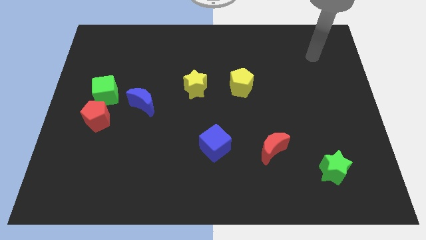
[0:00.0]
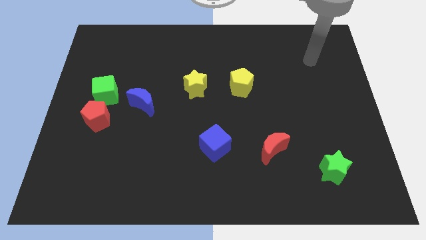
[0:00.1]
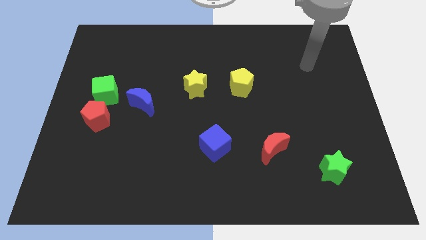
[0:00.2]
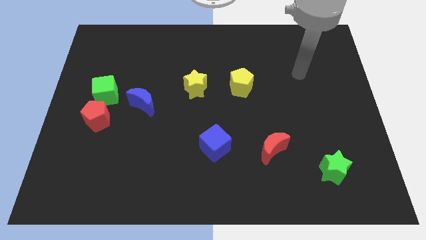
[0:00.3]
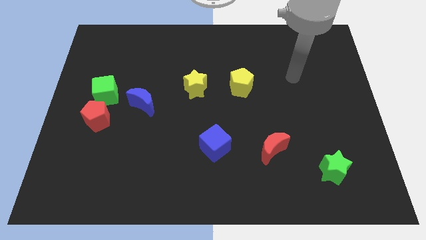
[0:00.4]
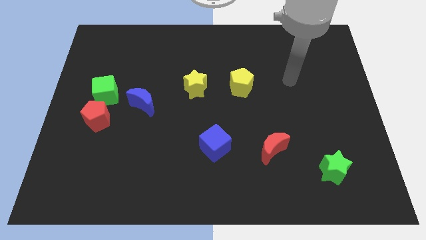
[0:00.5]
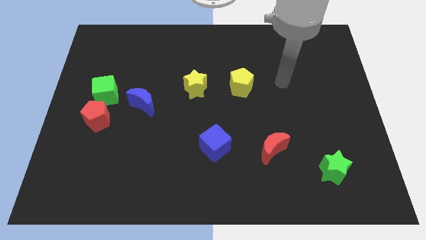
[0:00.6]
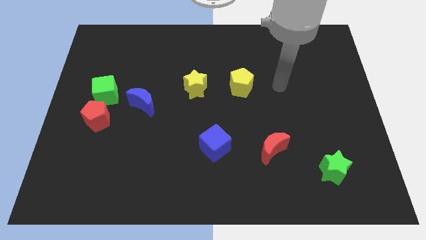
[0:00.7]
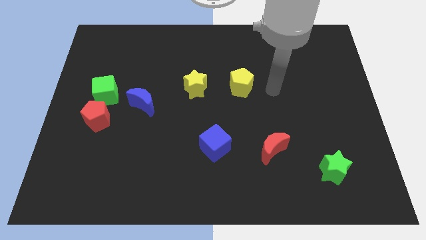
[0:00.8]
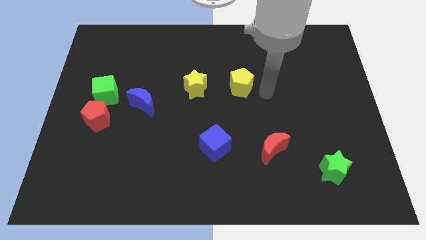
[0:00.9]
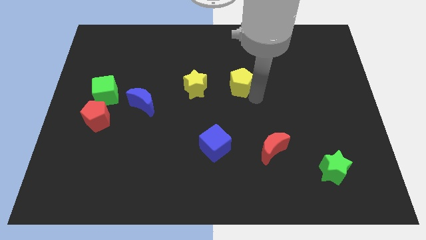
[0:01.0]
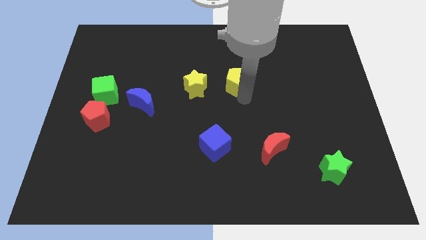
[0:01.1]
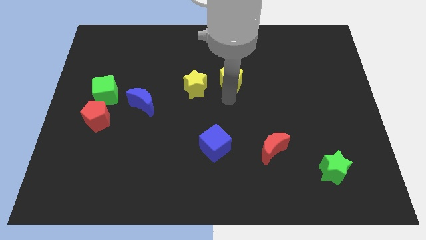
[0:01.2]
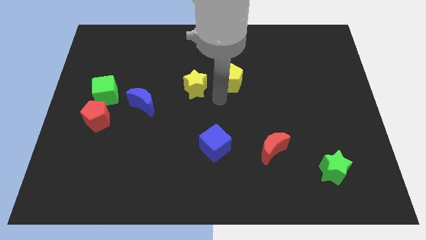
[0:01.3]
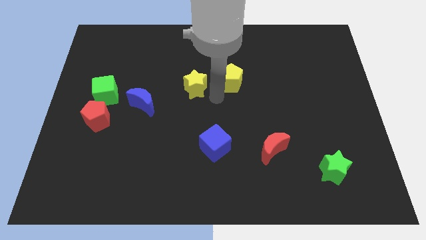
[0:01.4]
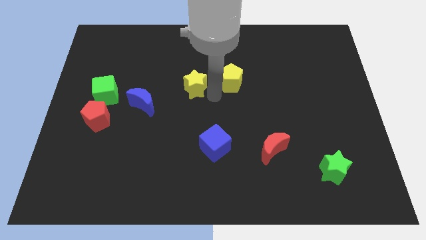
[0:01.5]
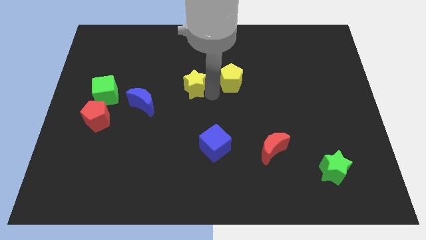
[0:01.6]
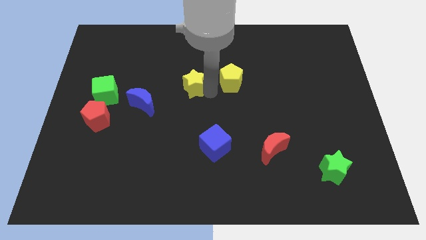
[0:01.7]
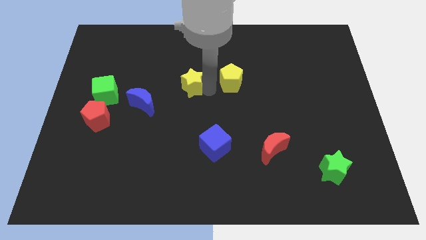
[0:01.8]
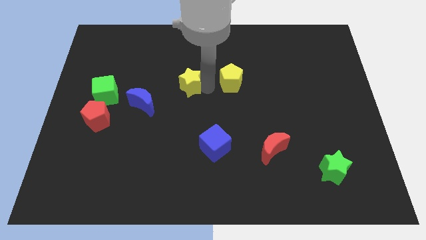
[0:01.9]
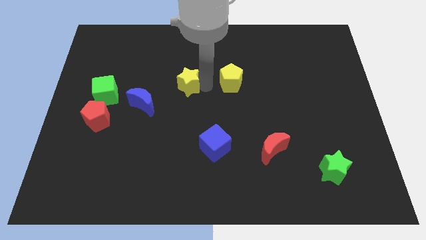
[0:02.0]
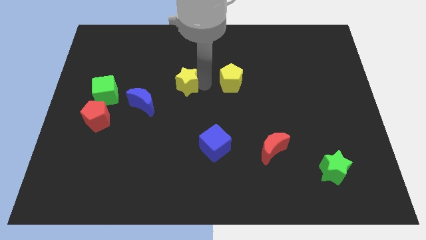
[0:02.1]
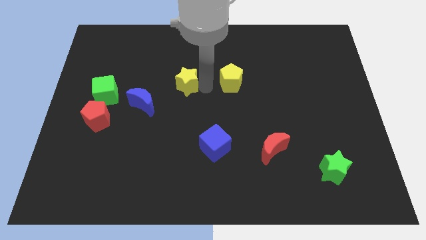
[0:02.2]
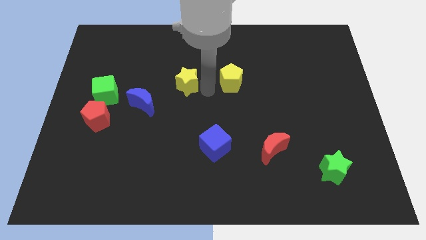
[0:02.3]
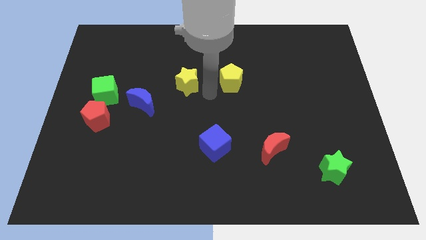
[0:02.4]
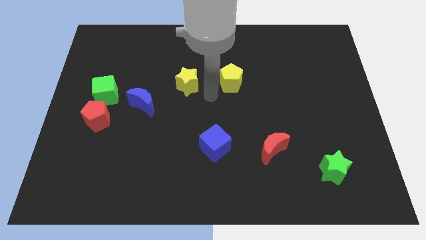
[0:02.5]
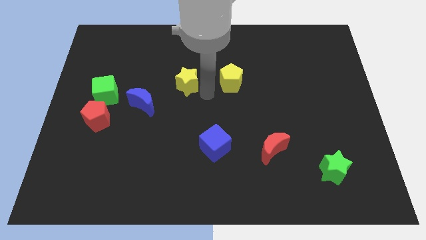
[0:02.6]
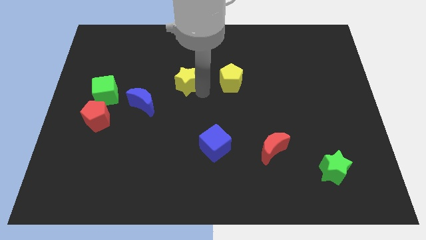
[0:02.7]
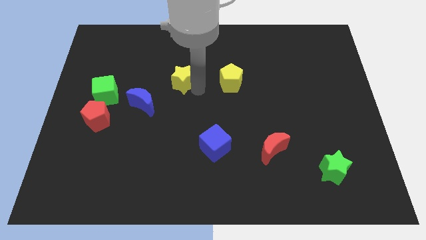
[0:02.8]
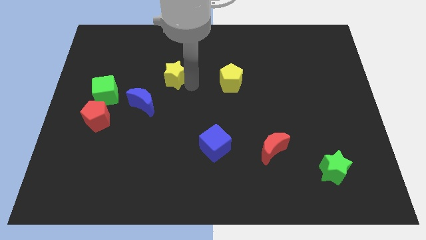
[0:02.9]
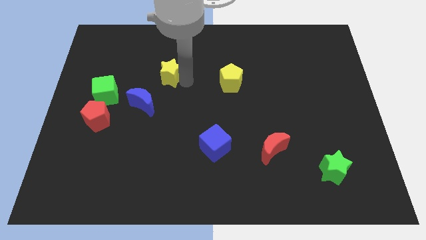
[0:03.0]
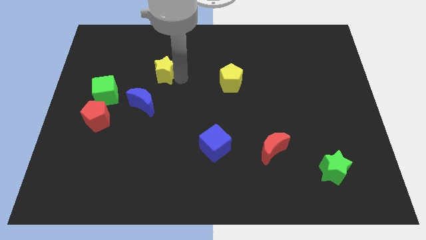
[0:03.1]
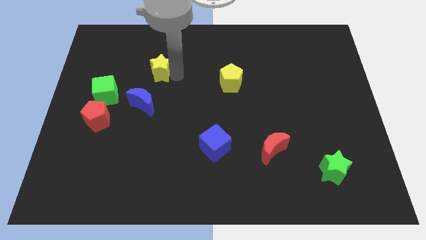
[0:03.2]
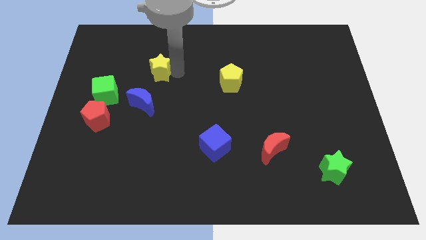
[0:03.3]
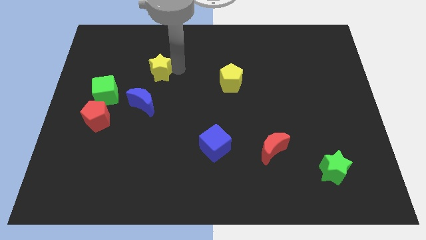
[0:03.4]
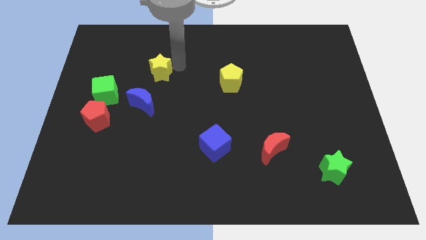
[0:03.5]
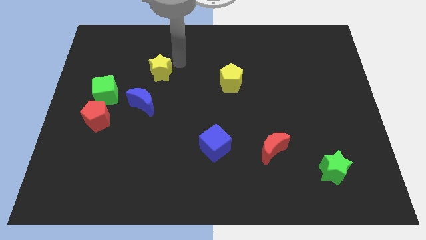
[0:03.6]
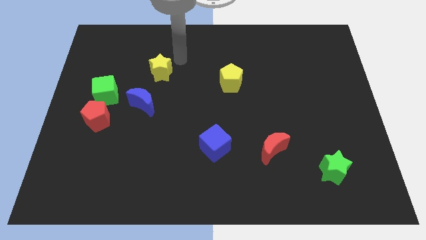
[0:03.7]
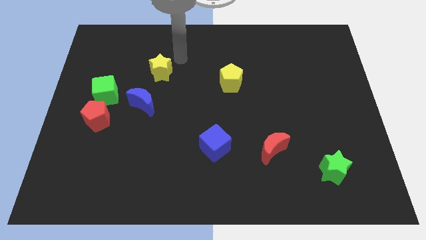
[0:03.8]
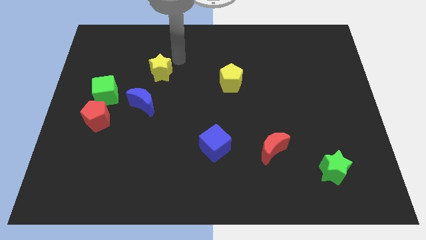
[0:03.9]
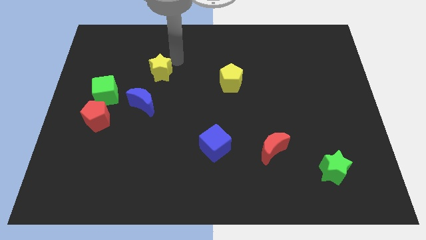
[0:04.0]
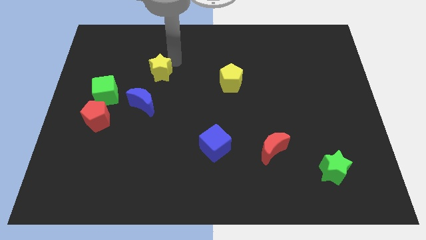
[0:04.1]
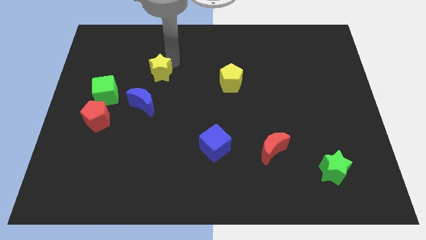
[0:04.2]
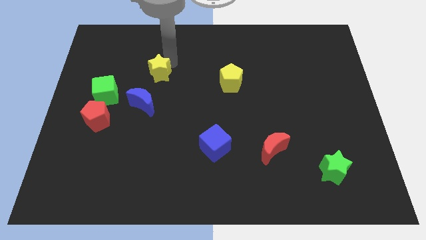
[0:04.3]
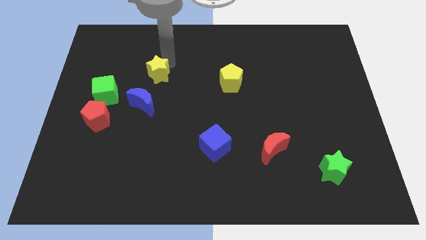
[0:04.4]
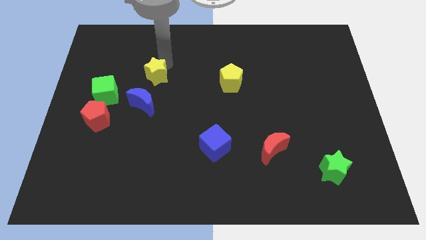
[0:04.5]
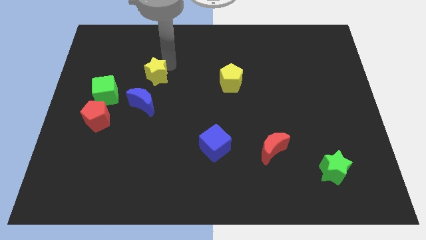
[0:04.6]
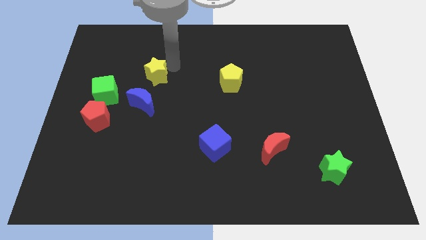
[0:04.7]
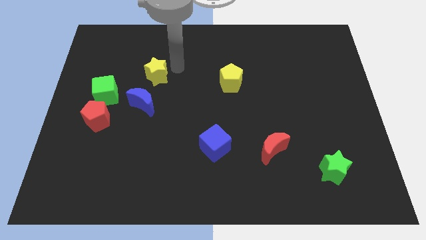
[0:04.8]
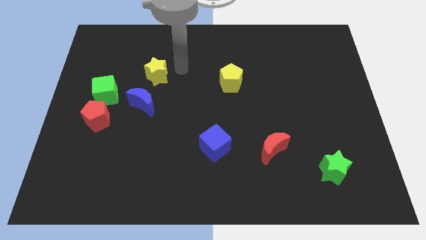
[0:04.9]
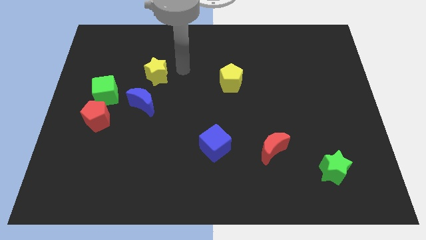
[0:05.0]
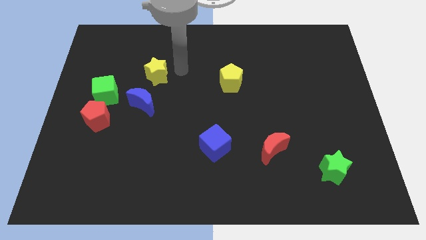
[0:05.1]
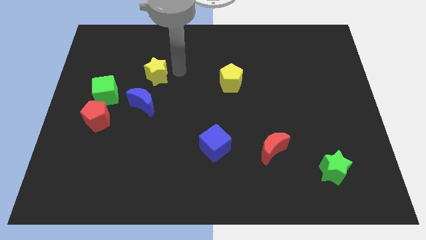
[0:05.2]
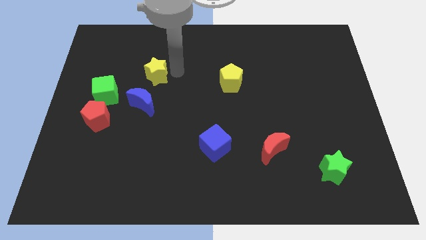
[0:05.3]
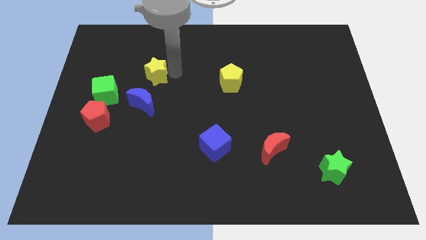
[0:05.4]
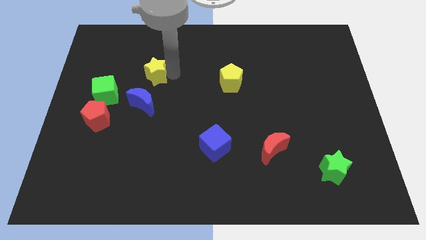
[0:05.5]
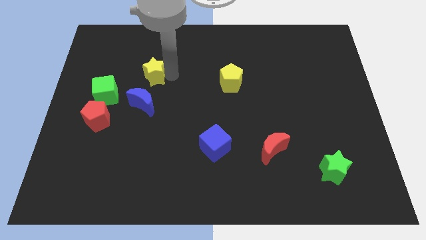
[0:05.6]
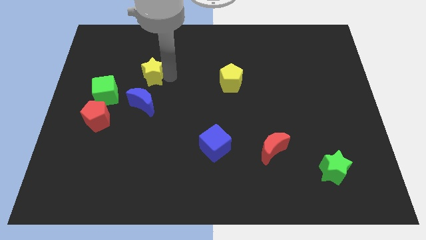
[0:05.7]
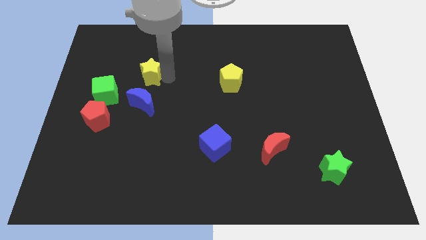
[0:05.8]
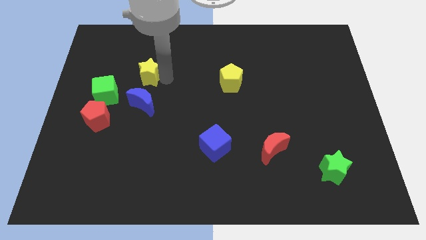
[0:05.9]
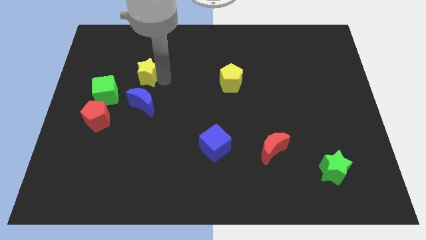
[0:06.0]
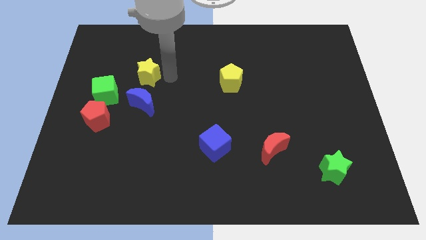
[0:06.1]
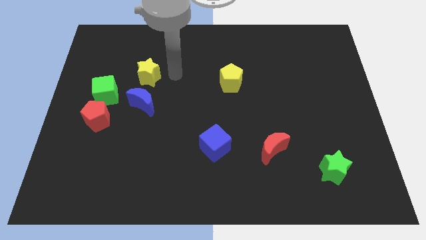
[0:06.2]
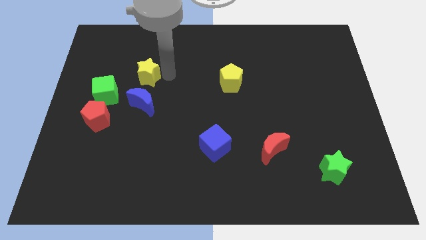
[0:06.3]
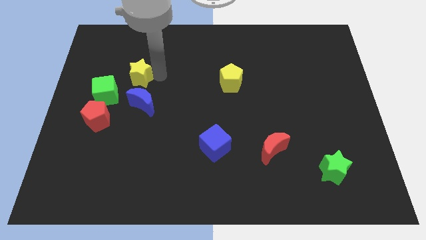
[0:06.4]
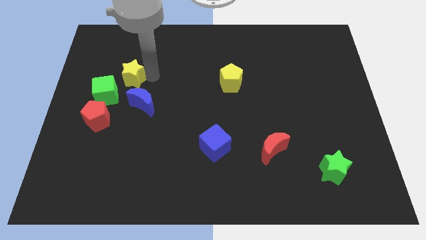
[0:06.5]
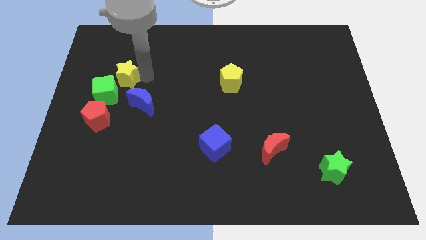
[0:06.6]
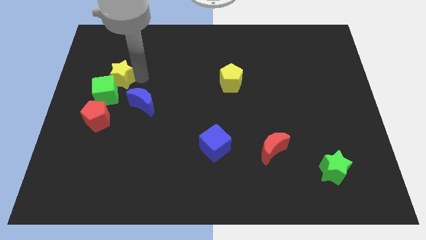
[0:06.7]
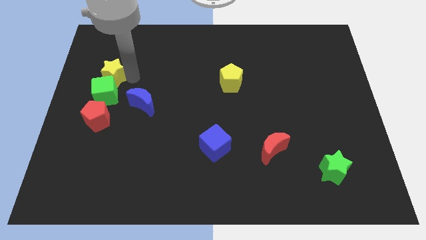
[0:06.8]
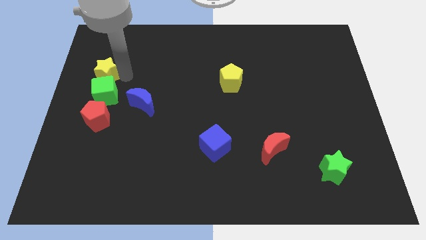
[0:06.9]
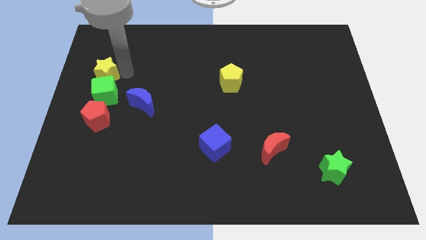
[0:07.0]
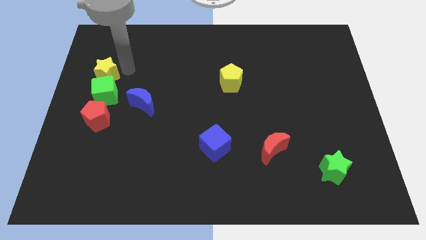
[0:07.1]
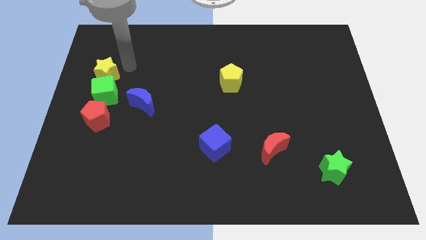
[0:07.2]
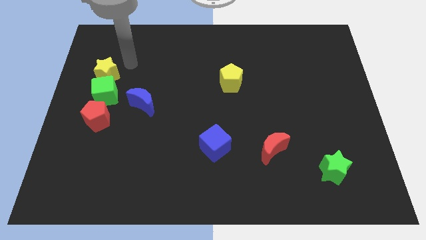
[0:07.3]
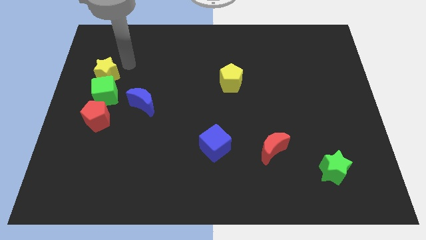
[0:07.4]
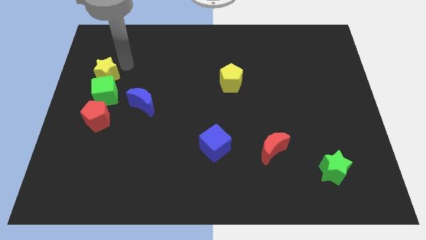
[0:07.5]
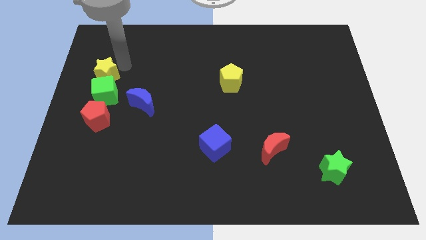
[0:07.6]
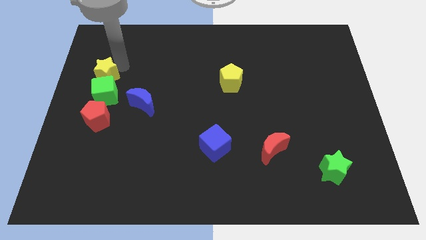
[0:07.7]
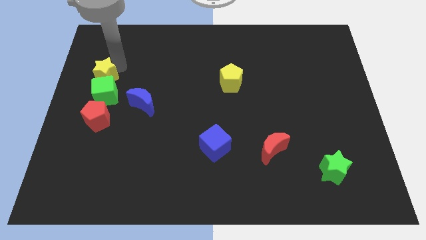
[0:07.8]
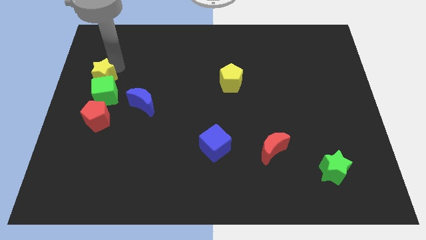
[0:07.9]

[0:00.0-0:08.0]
move the yellow star to the left side
